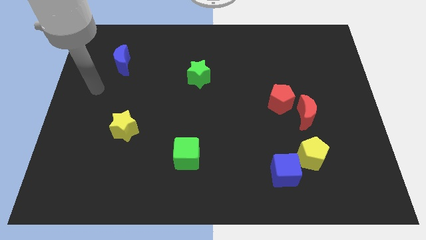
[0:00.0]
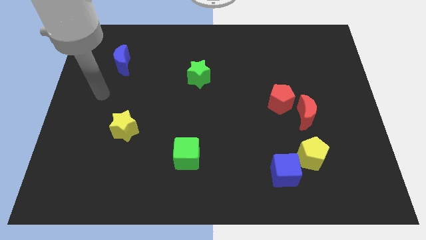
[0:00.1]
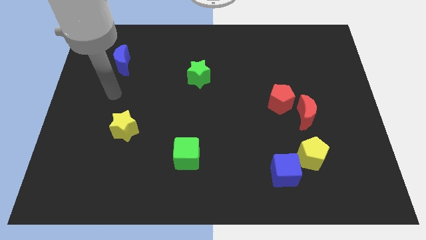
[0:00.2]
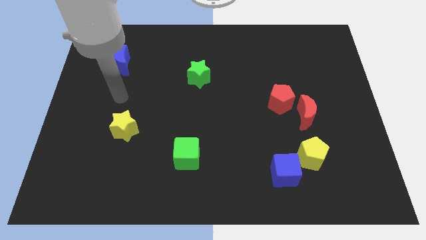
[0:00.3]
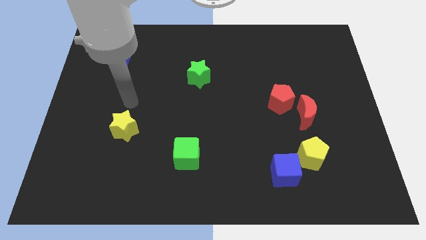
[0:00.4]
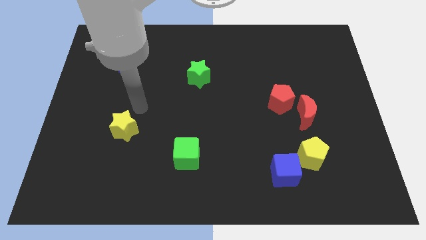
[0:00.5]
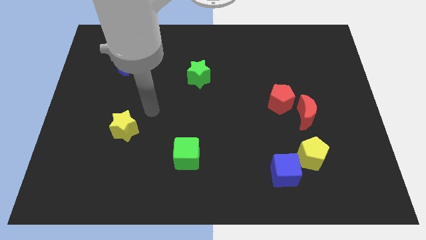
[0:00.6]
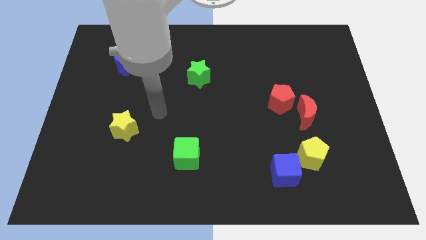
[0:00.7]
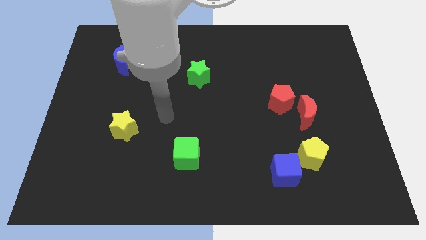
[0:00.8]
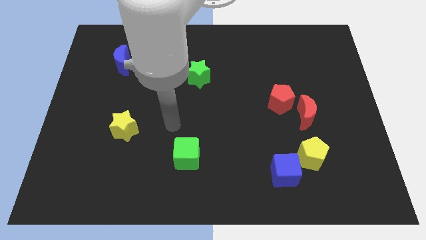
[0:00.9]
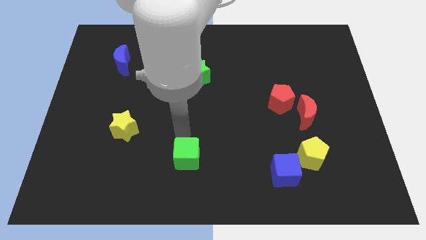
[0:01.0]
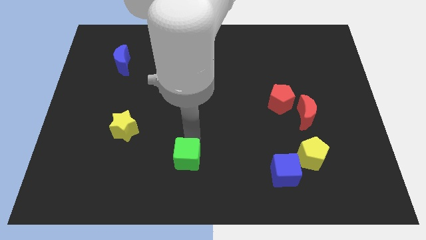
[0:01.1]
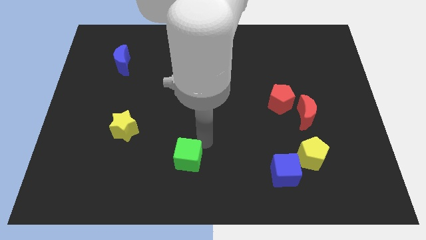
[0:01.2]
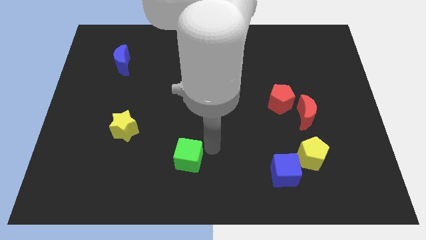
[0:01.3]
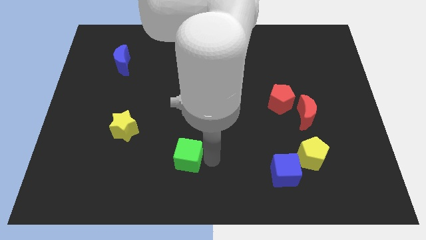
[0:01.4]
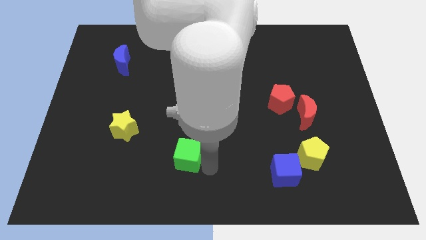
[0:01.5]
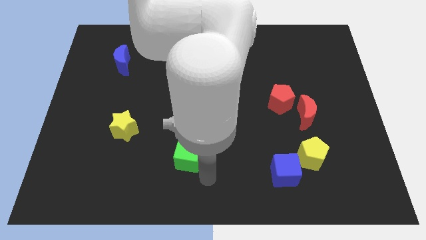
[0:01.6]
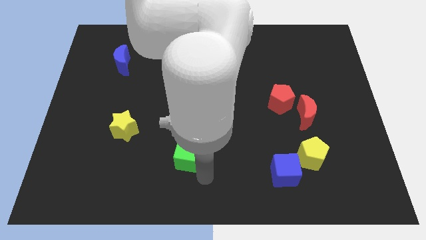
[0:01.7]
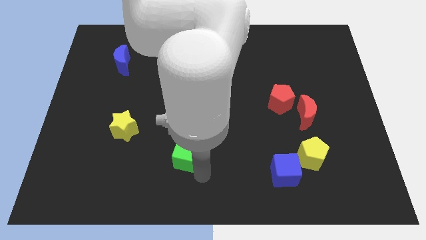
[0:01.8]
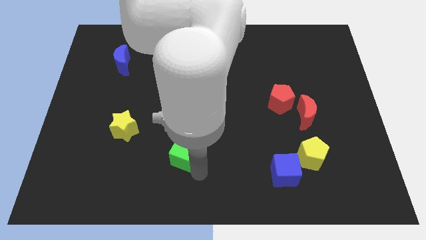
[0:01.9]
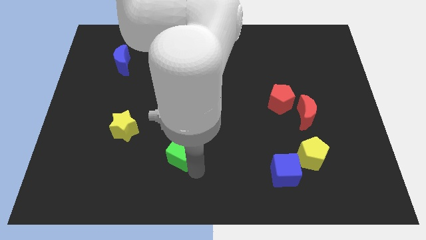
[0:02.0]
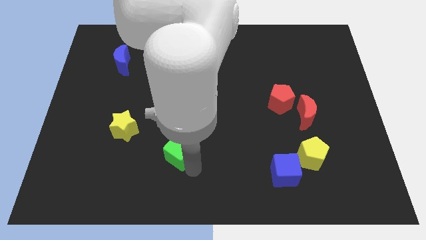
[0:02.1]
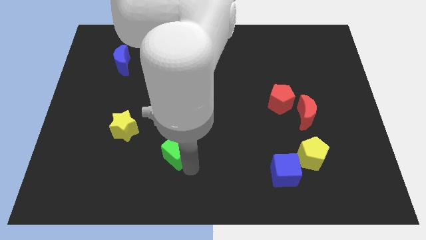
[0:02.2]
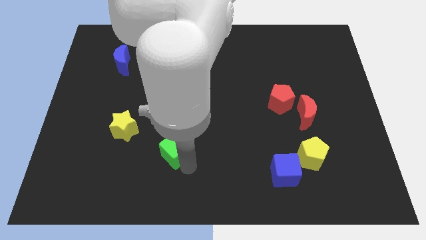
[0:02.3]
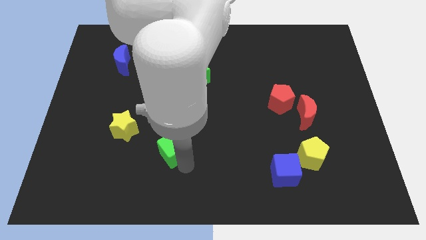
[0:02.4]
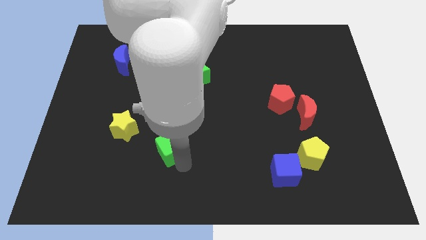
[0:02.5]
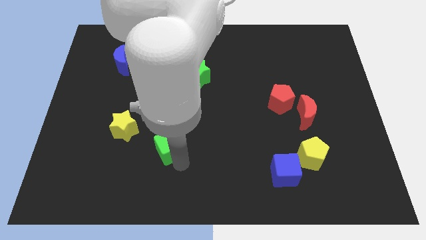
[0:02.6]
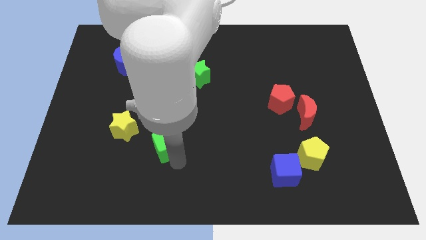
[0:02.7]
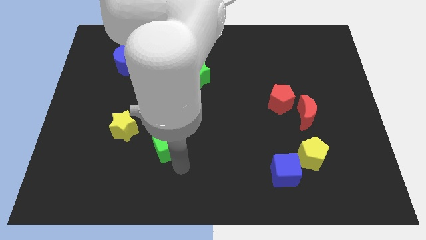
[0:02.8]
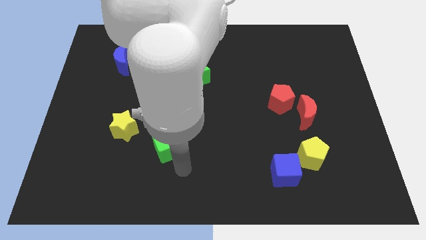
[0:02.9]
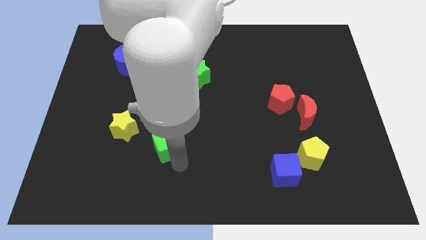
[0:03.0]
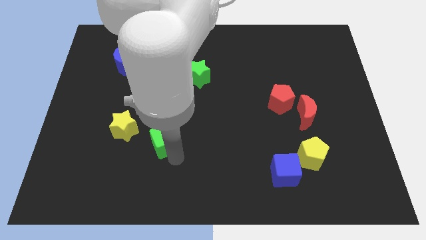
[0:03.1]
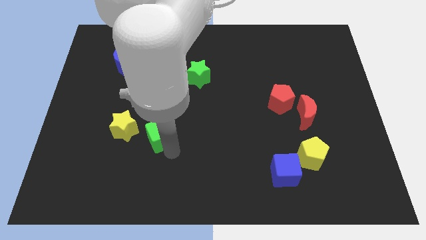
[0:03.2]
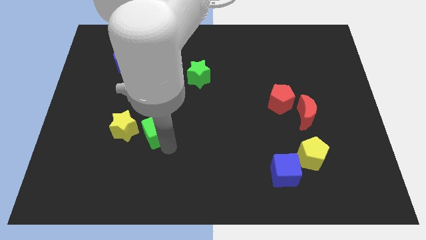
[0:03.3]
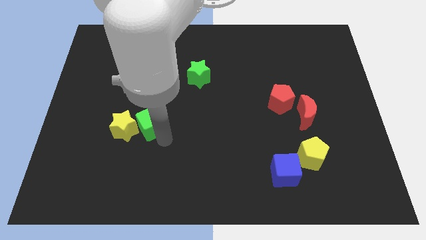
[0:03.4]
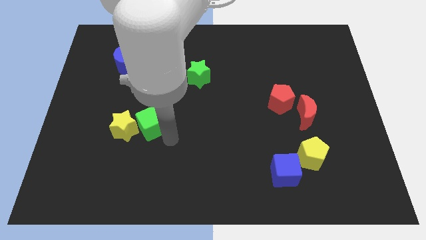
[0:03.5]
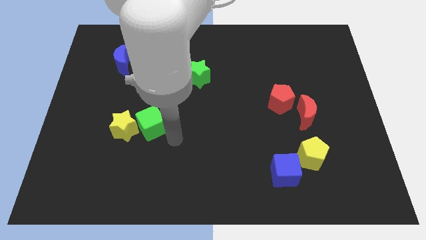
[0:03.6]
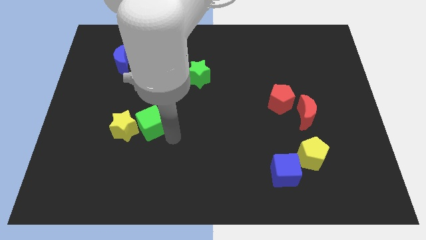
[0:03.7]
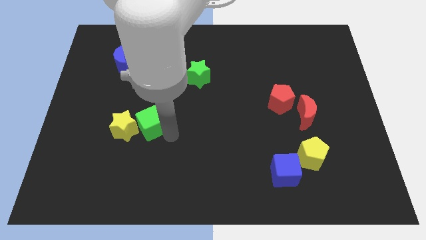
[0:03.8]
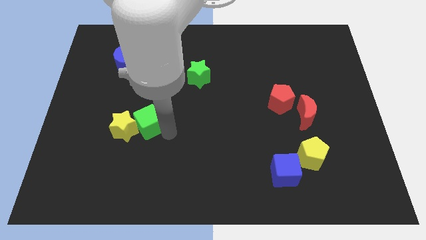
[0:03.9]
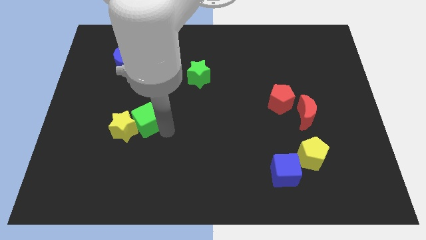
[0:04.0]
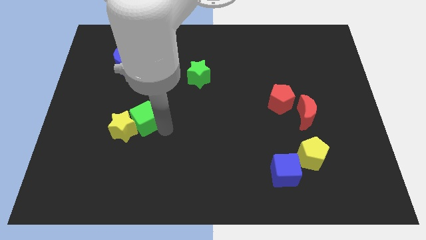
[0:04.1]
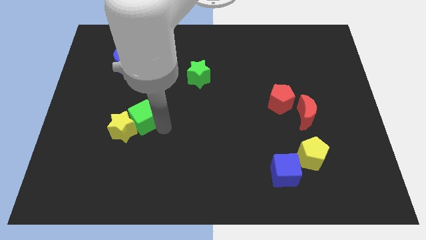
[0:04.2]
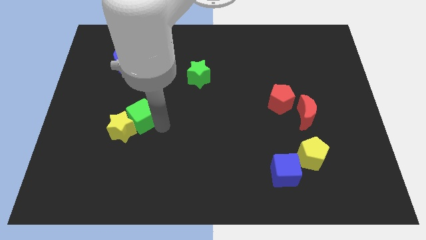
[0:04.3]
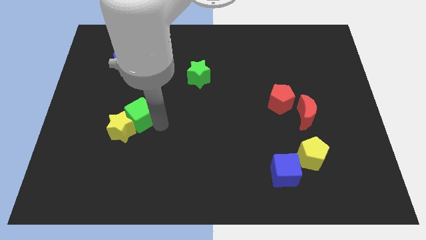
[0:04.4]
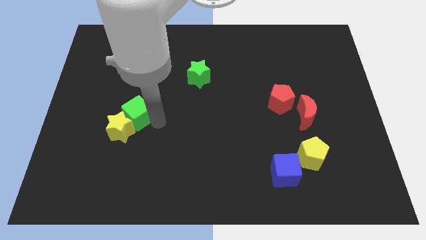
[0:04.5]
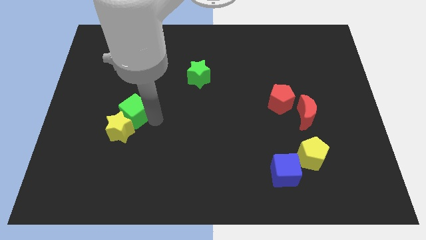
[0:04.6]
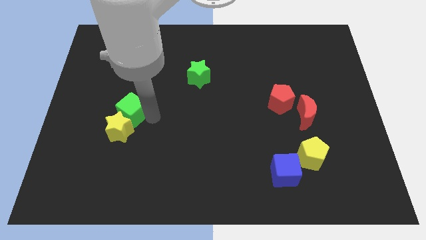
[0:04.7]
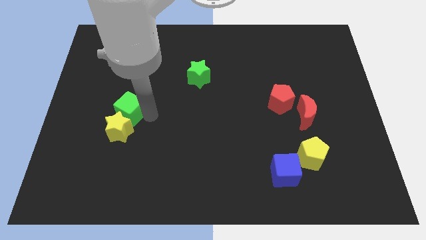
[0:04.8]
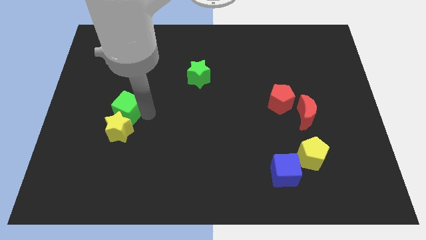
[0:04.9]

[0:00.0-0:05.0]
slide the green cube to the top left side of the yellow star

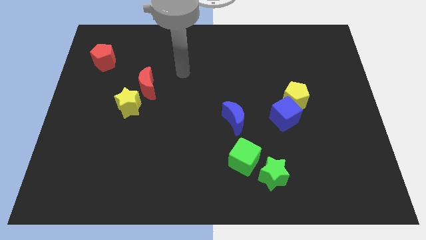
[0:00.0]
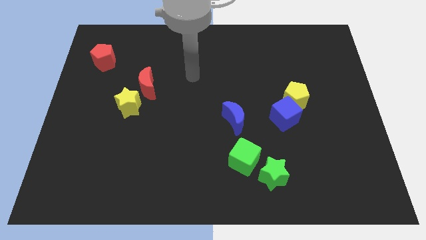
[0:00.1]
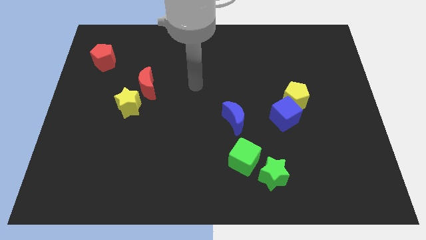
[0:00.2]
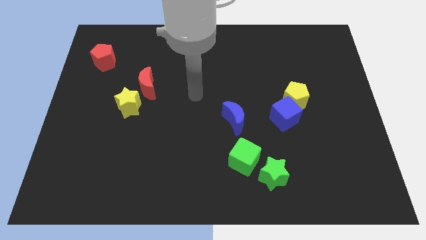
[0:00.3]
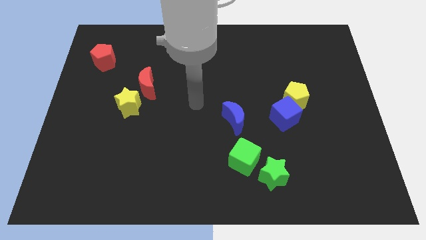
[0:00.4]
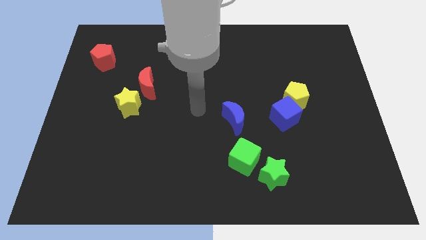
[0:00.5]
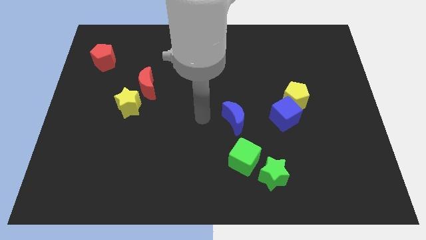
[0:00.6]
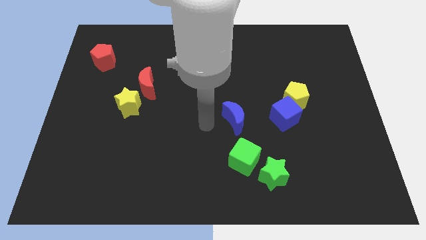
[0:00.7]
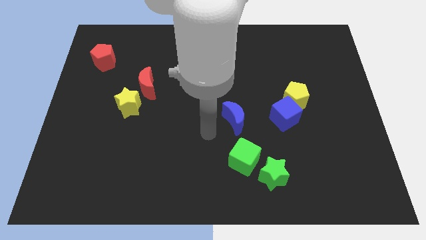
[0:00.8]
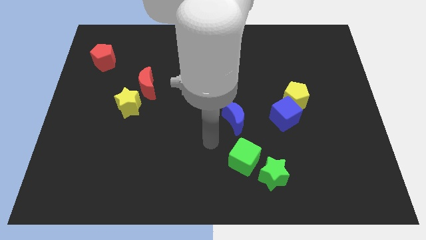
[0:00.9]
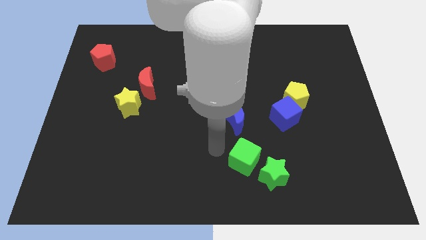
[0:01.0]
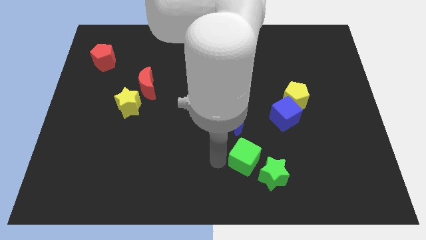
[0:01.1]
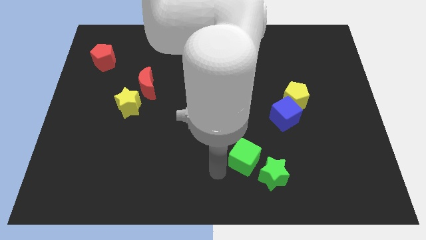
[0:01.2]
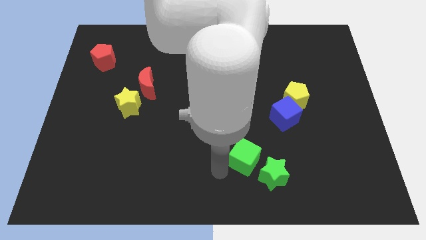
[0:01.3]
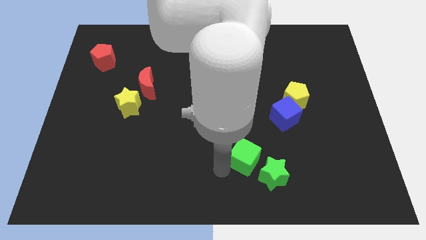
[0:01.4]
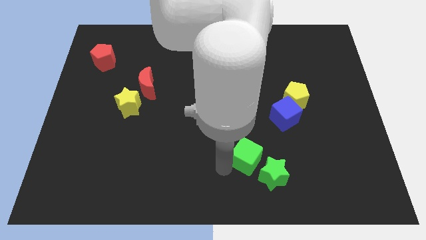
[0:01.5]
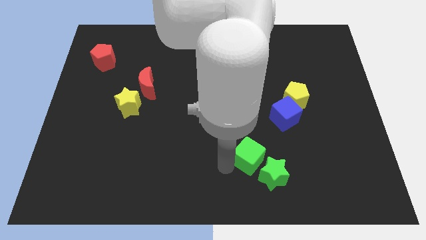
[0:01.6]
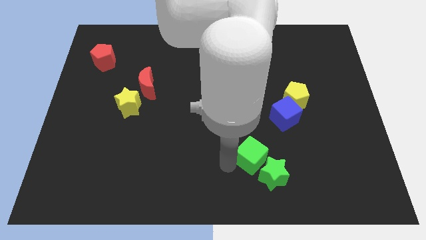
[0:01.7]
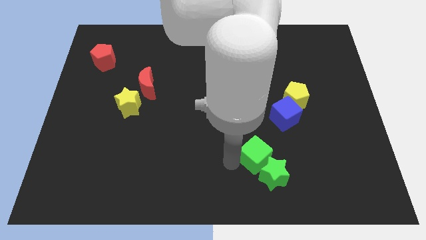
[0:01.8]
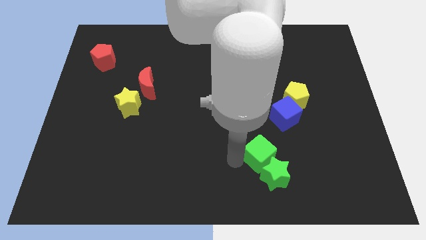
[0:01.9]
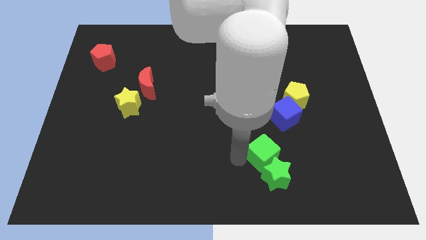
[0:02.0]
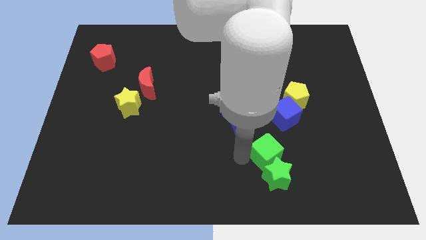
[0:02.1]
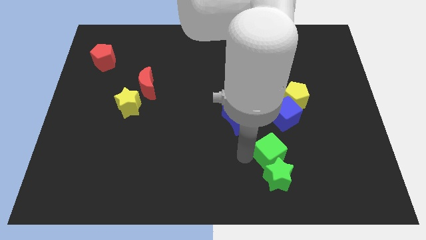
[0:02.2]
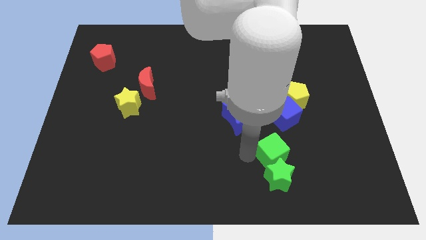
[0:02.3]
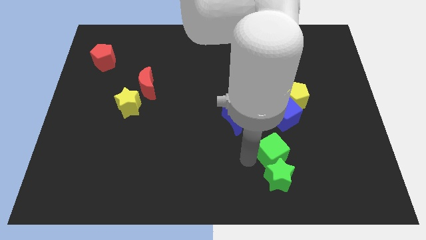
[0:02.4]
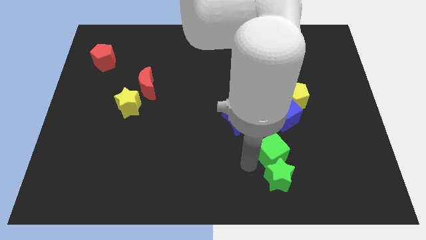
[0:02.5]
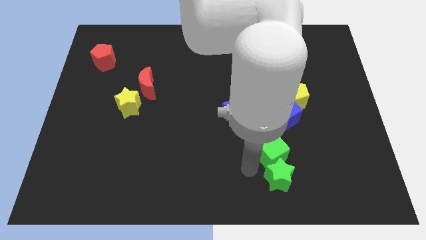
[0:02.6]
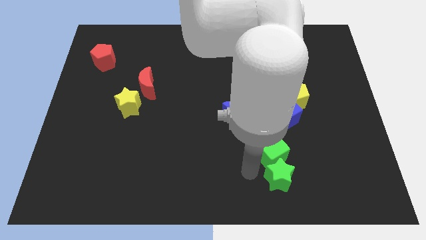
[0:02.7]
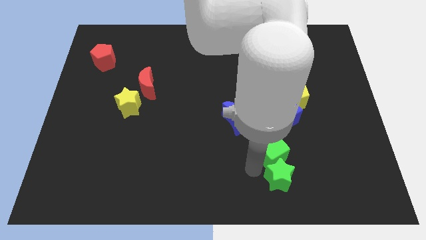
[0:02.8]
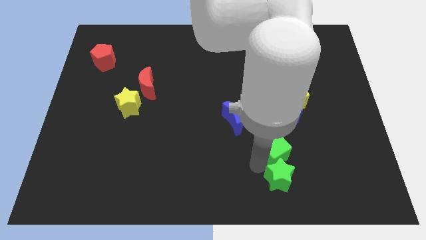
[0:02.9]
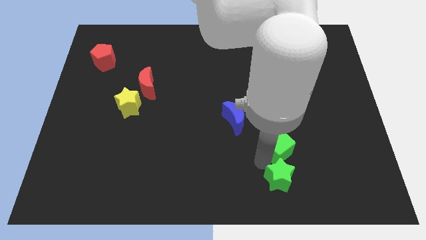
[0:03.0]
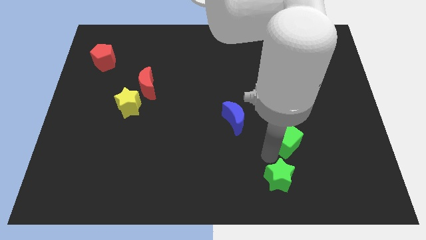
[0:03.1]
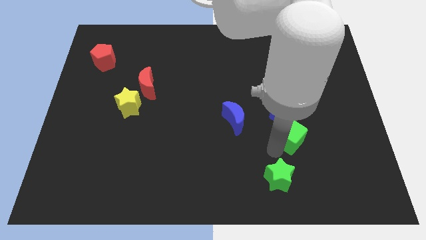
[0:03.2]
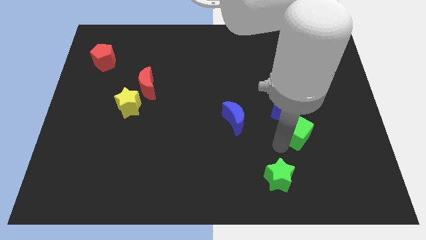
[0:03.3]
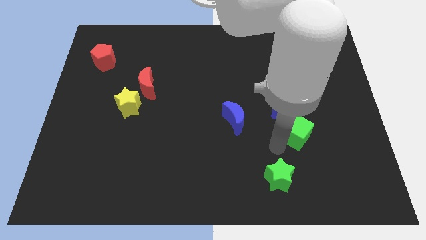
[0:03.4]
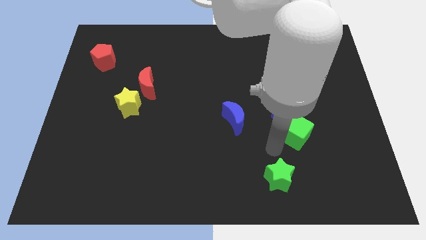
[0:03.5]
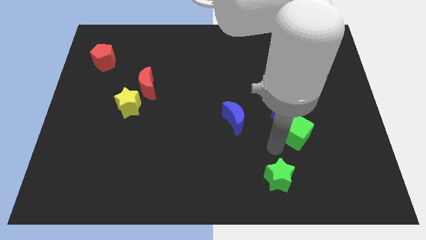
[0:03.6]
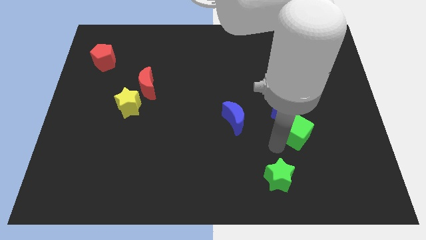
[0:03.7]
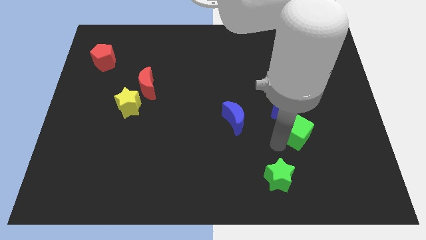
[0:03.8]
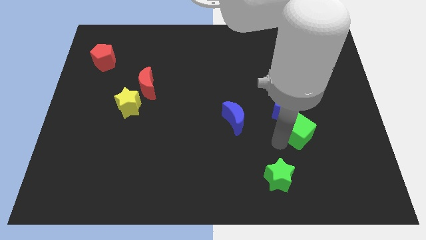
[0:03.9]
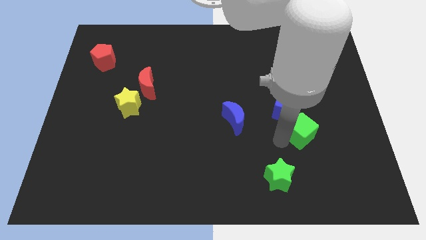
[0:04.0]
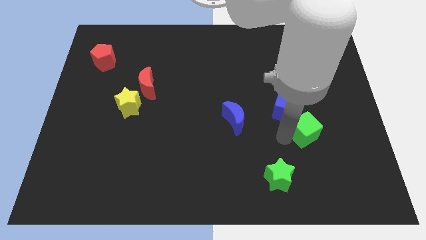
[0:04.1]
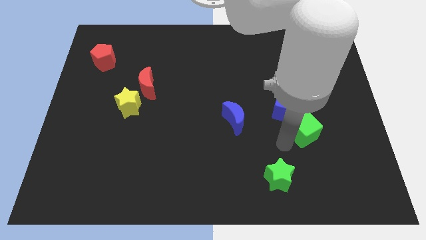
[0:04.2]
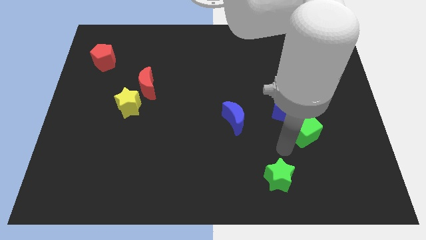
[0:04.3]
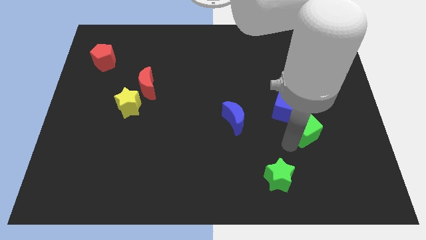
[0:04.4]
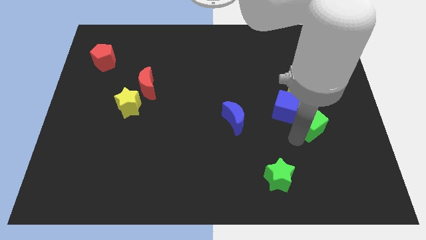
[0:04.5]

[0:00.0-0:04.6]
push the green cube to the right side of the blue cube
